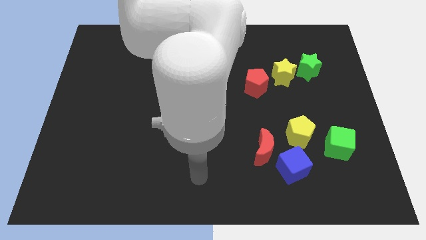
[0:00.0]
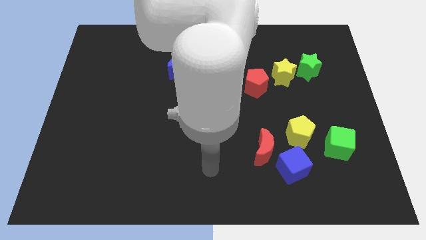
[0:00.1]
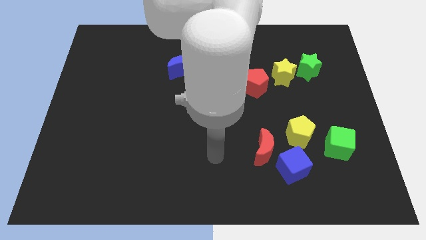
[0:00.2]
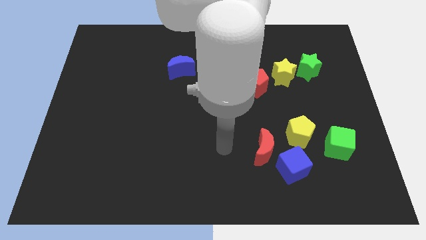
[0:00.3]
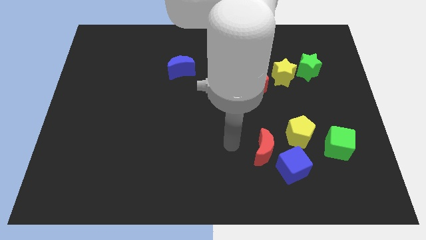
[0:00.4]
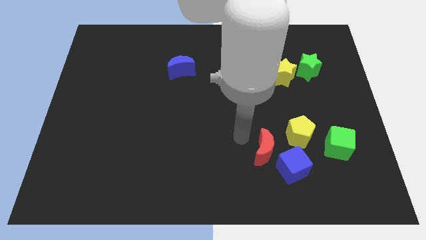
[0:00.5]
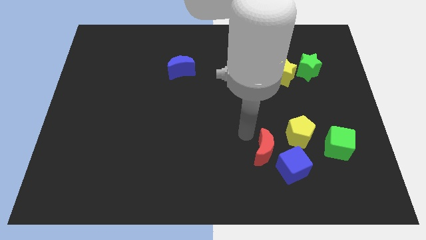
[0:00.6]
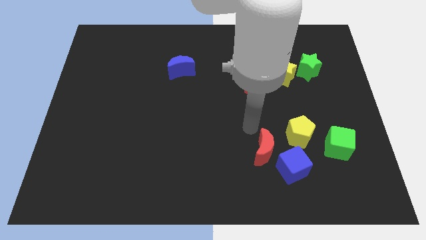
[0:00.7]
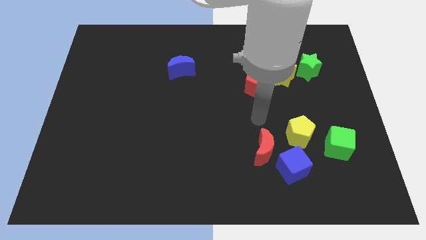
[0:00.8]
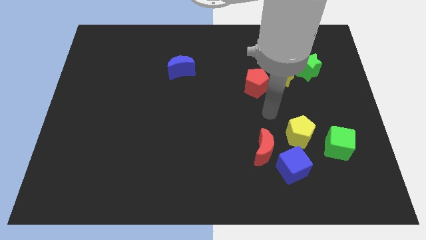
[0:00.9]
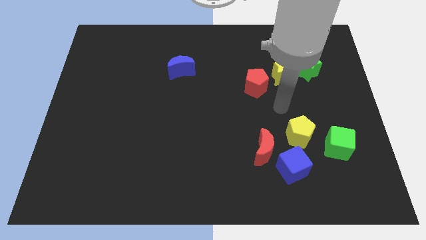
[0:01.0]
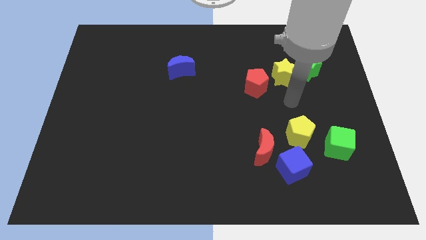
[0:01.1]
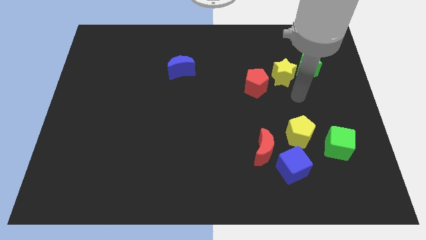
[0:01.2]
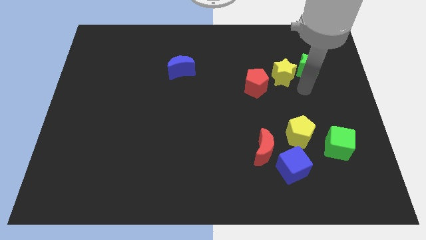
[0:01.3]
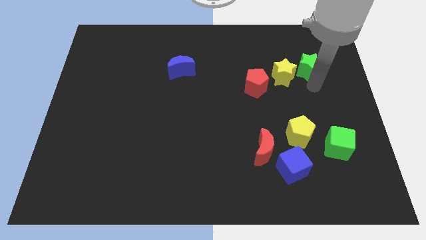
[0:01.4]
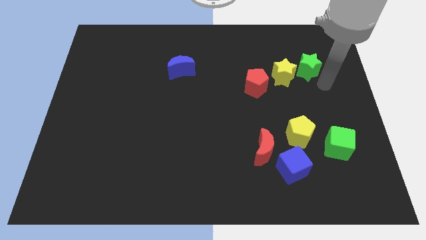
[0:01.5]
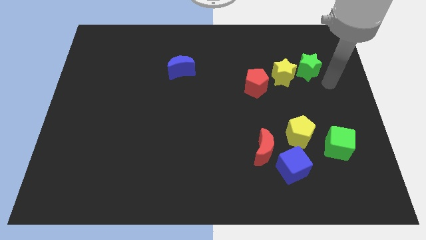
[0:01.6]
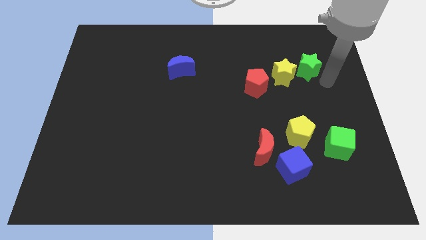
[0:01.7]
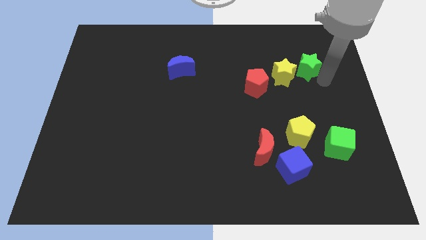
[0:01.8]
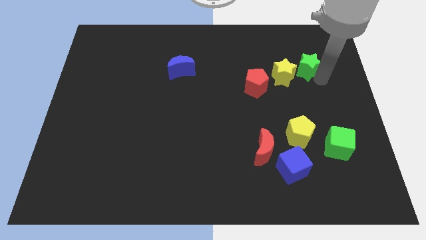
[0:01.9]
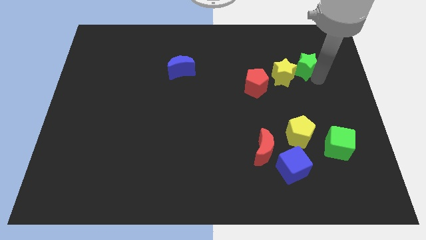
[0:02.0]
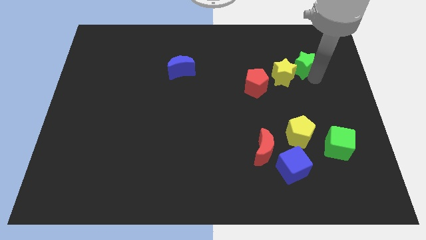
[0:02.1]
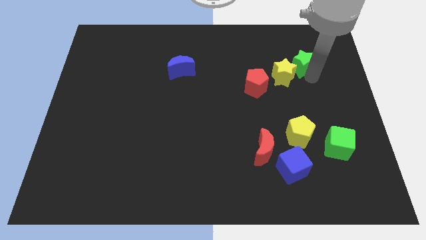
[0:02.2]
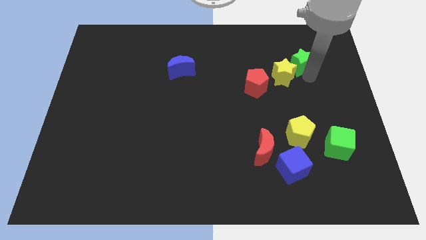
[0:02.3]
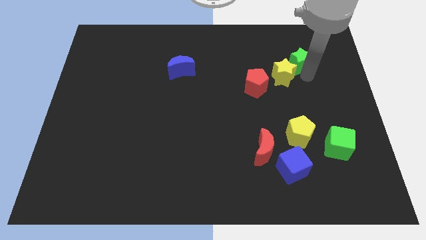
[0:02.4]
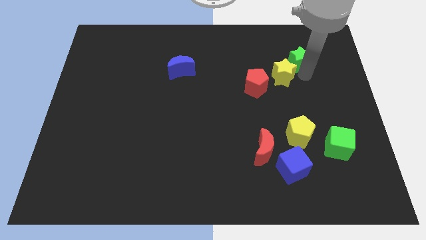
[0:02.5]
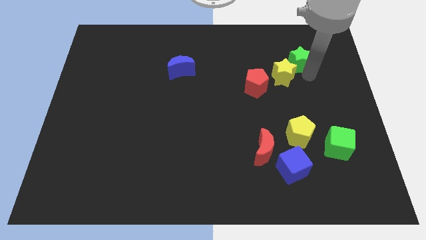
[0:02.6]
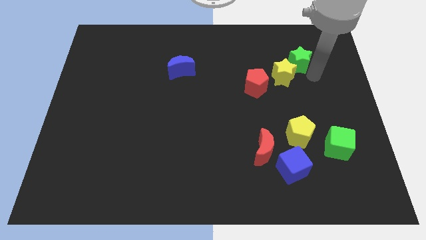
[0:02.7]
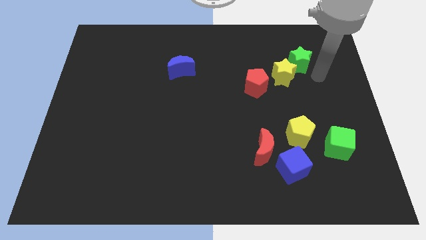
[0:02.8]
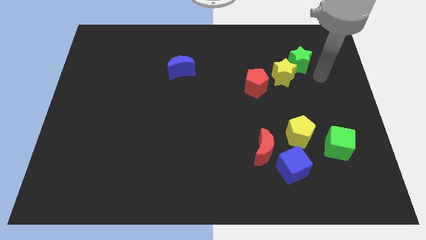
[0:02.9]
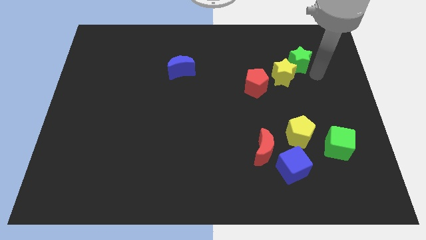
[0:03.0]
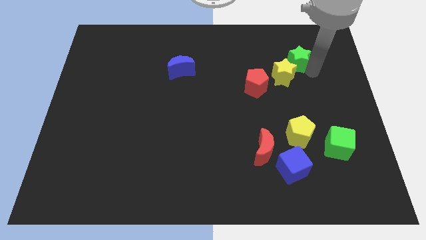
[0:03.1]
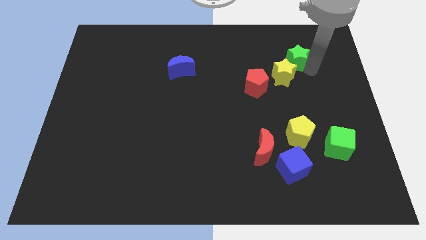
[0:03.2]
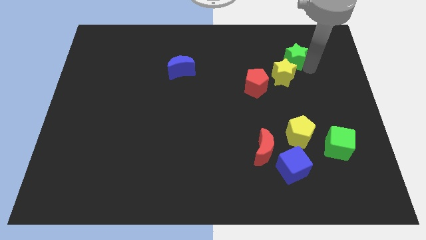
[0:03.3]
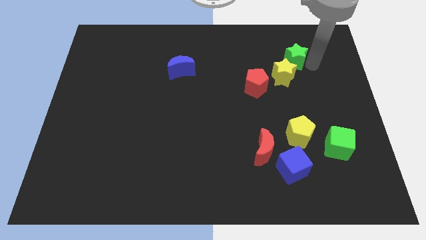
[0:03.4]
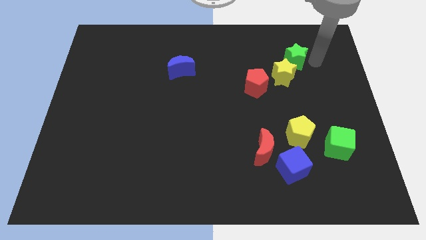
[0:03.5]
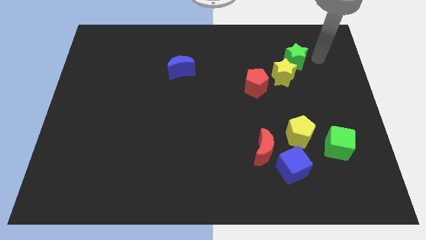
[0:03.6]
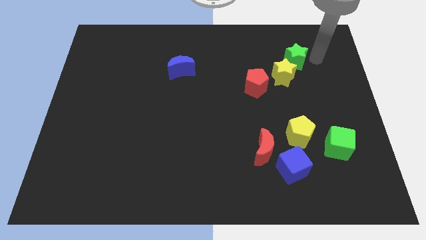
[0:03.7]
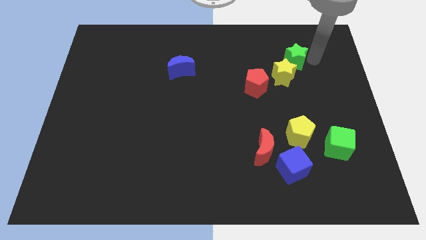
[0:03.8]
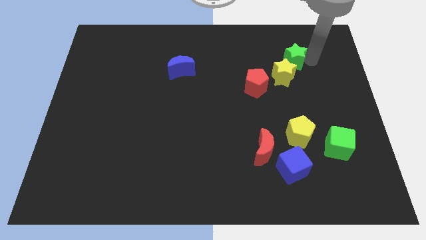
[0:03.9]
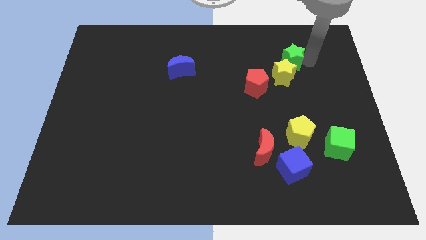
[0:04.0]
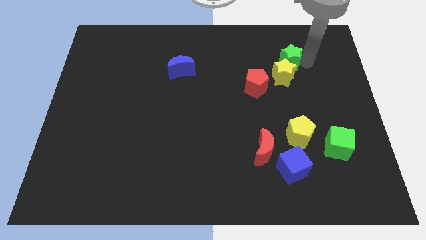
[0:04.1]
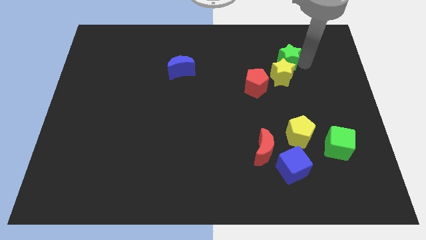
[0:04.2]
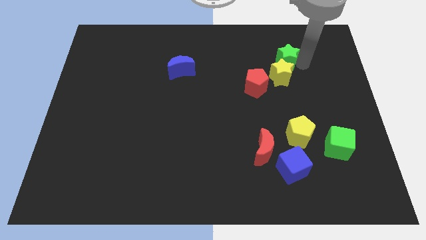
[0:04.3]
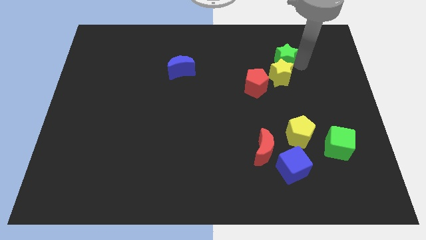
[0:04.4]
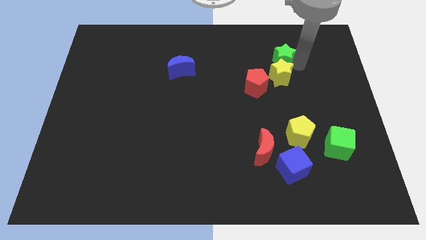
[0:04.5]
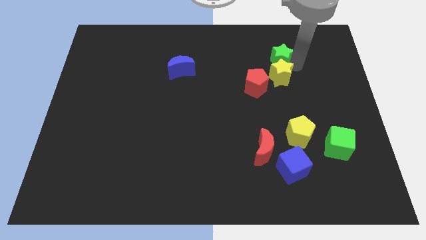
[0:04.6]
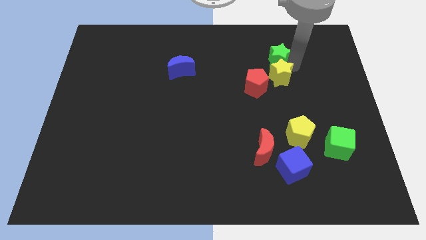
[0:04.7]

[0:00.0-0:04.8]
push the green star a little bit left

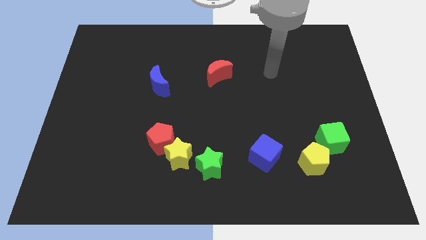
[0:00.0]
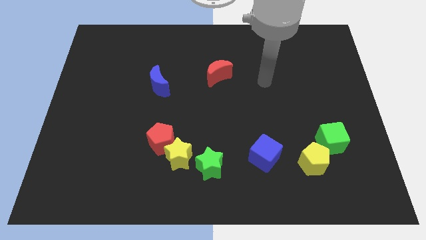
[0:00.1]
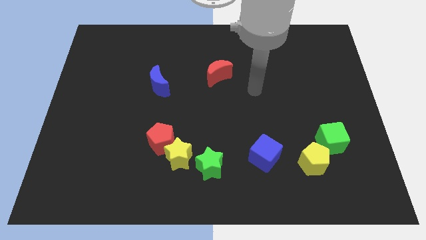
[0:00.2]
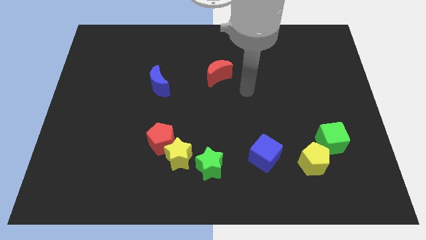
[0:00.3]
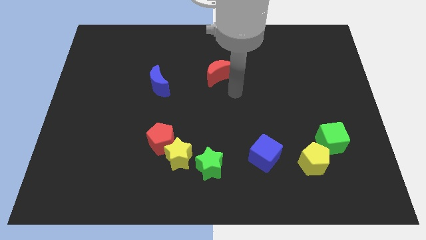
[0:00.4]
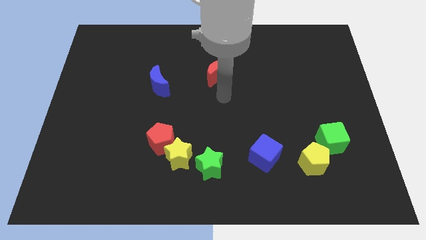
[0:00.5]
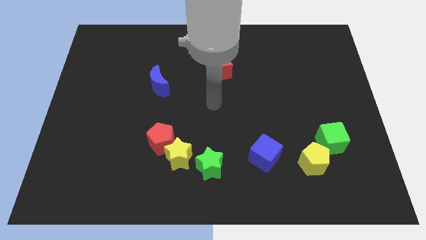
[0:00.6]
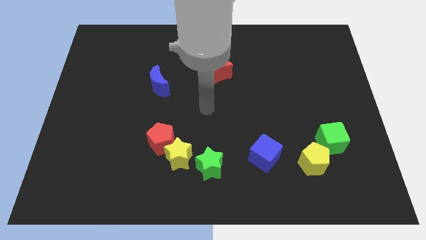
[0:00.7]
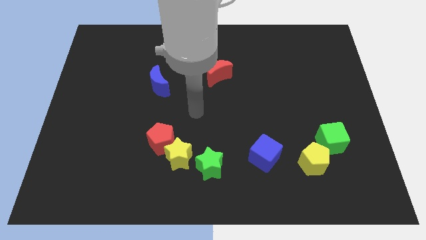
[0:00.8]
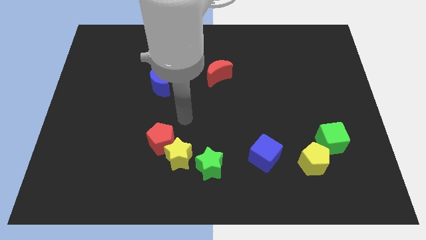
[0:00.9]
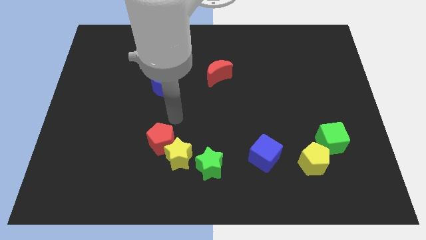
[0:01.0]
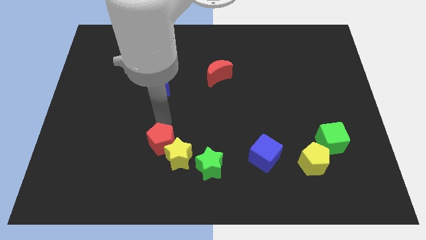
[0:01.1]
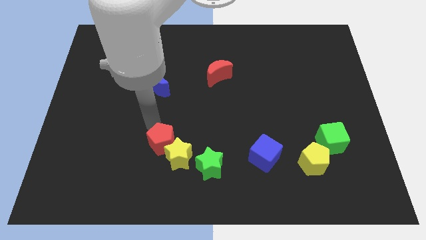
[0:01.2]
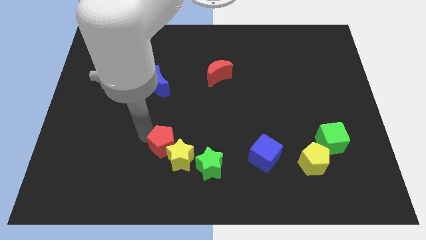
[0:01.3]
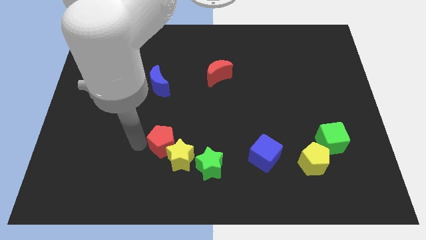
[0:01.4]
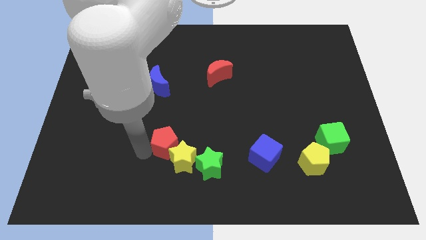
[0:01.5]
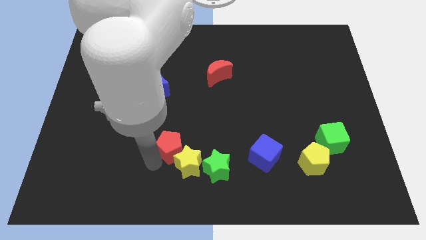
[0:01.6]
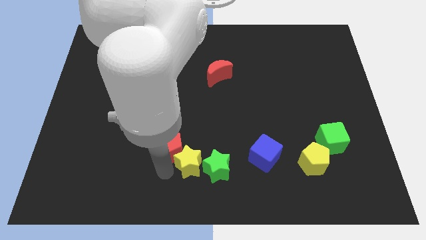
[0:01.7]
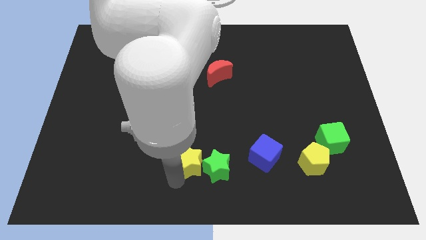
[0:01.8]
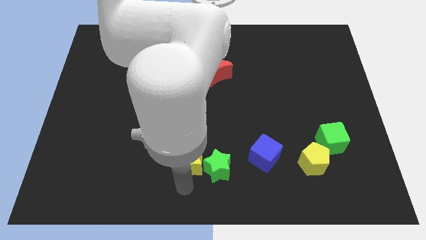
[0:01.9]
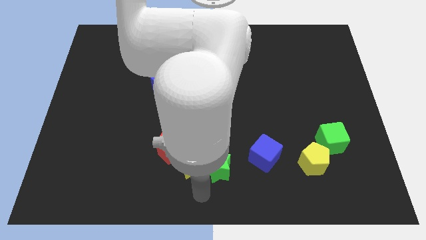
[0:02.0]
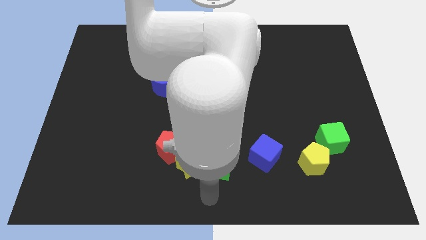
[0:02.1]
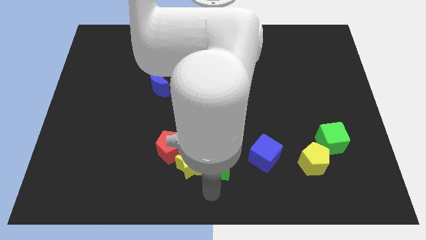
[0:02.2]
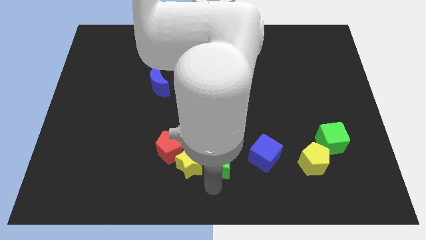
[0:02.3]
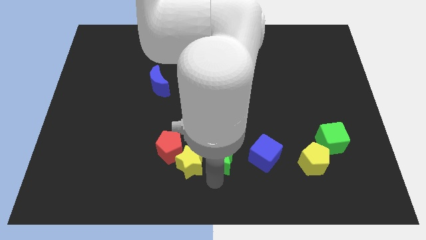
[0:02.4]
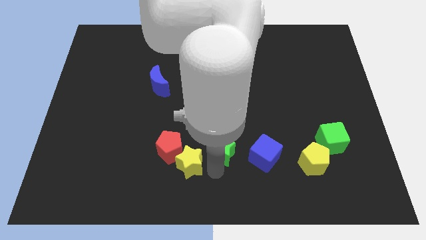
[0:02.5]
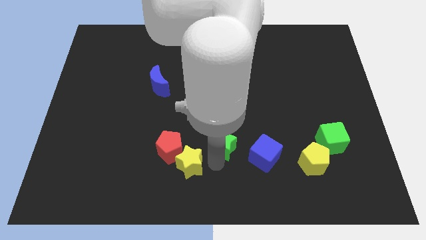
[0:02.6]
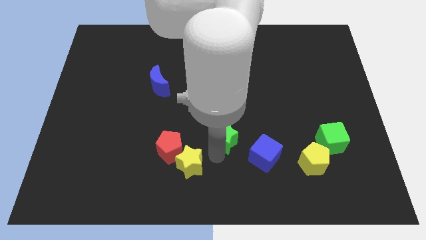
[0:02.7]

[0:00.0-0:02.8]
slide the green star up and right somewhat

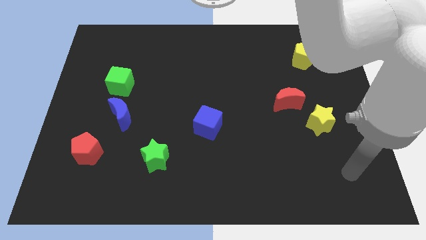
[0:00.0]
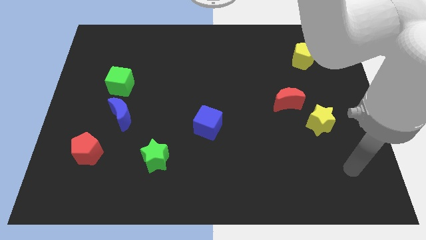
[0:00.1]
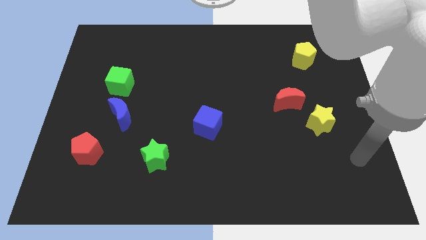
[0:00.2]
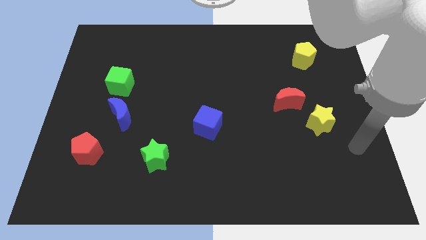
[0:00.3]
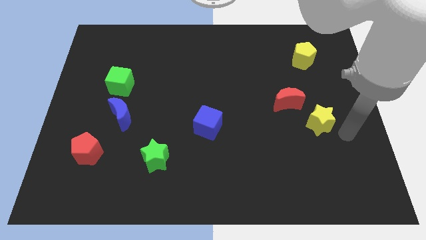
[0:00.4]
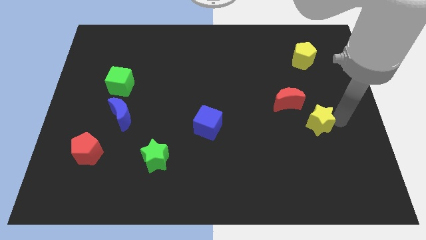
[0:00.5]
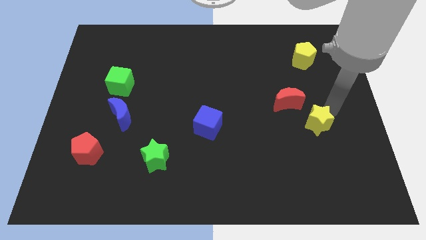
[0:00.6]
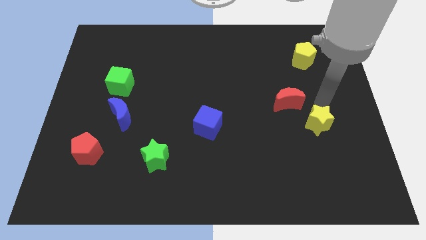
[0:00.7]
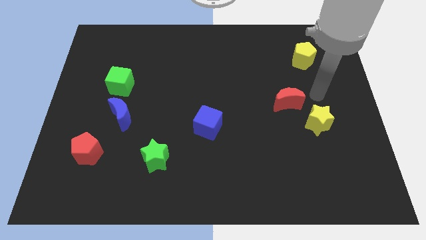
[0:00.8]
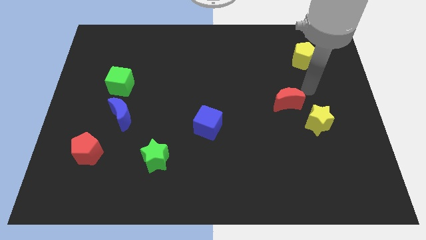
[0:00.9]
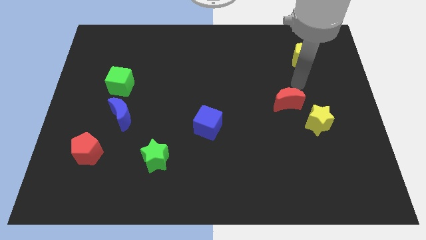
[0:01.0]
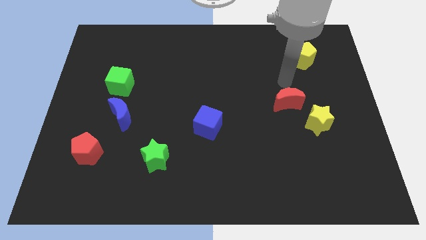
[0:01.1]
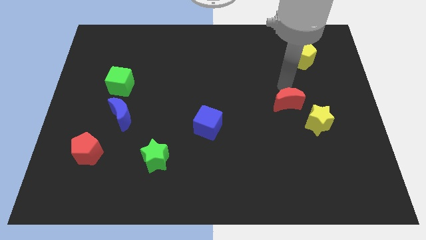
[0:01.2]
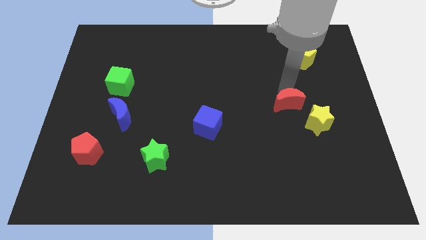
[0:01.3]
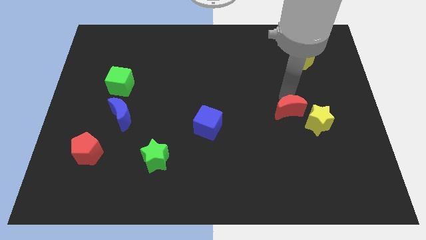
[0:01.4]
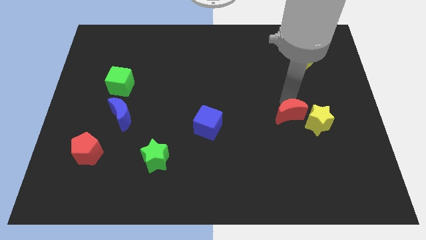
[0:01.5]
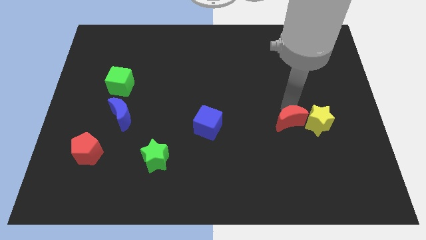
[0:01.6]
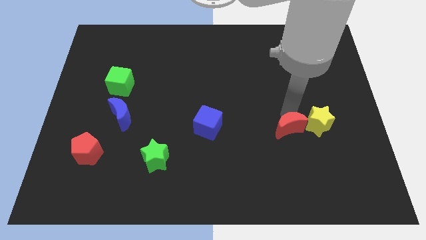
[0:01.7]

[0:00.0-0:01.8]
push the red moon a bit down
